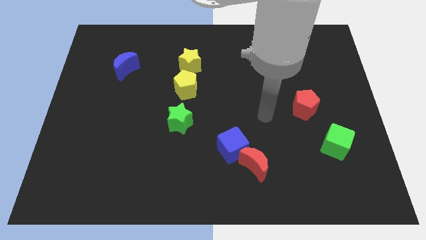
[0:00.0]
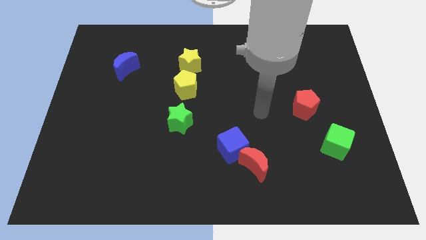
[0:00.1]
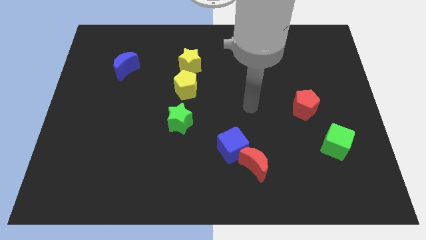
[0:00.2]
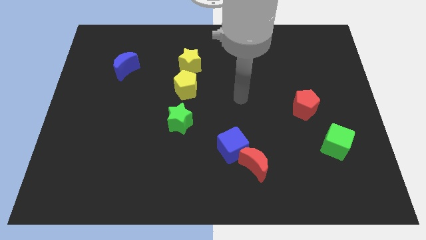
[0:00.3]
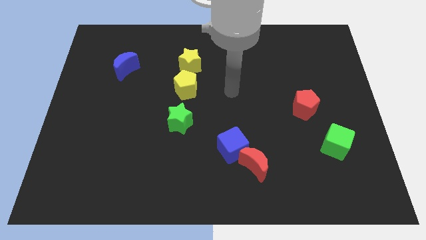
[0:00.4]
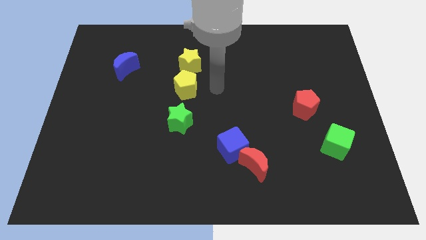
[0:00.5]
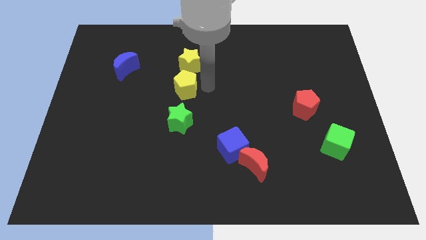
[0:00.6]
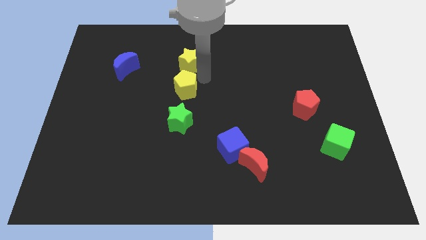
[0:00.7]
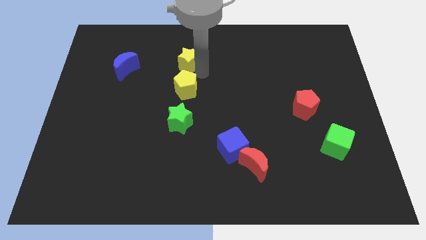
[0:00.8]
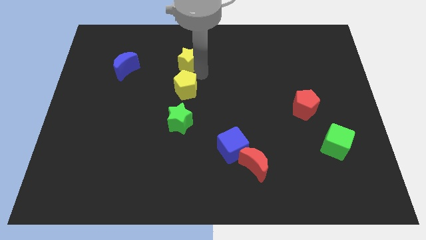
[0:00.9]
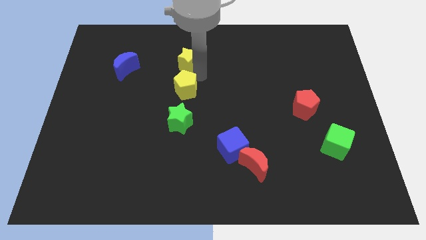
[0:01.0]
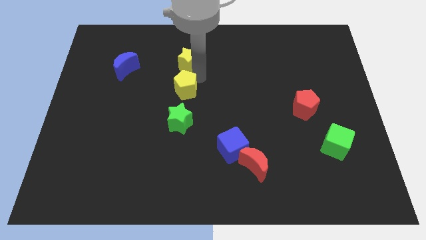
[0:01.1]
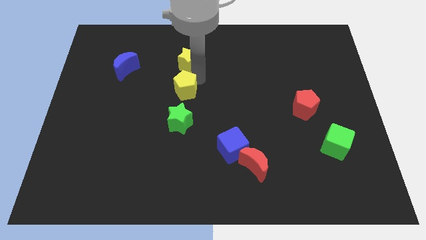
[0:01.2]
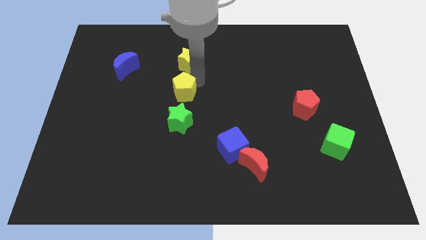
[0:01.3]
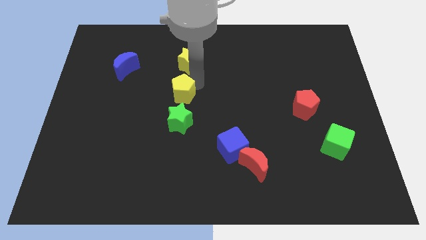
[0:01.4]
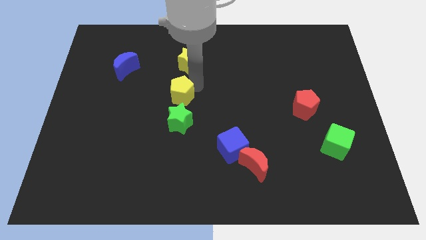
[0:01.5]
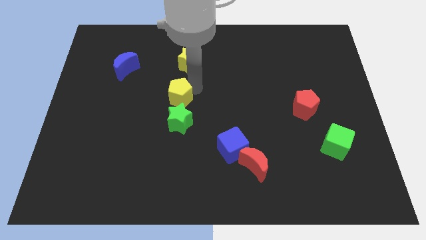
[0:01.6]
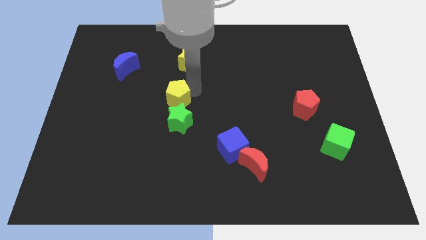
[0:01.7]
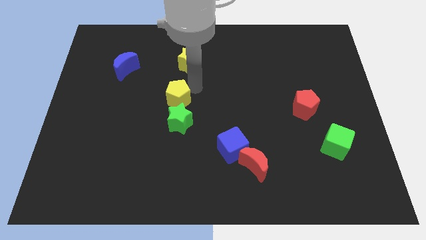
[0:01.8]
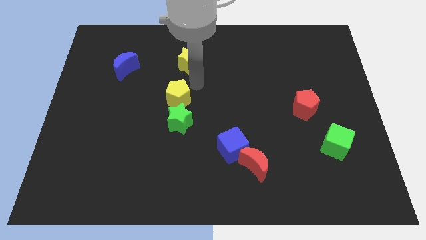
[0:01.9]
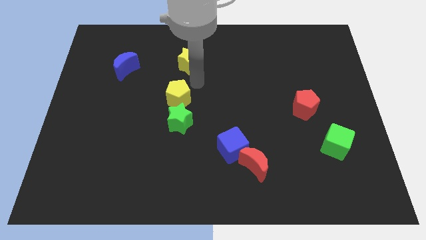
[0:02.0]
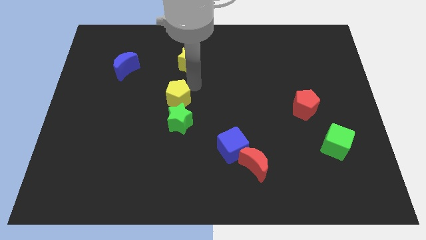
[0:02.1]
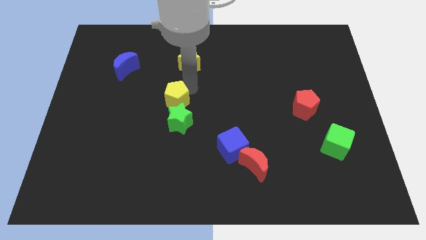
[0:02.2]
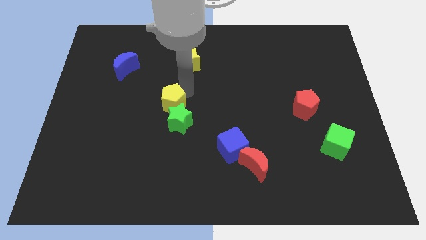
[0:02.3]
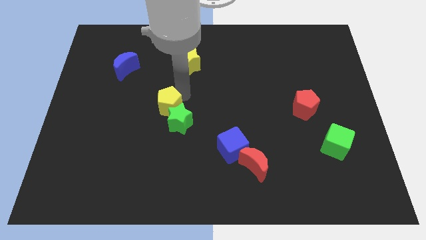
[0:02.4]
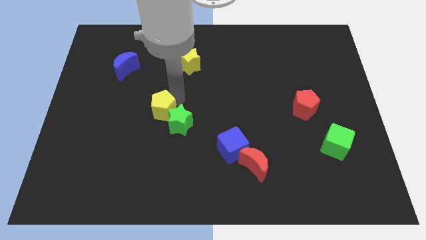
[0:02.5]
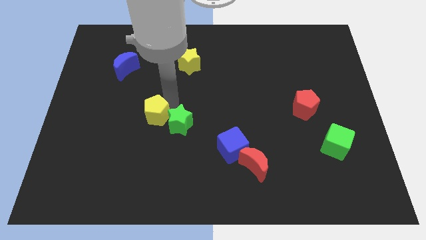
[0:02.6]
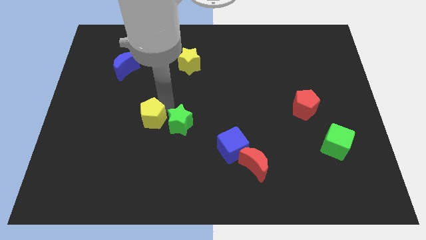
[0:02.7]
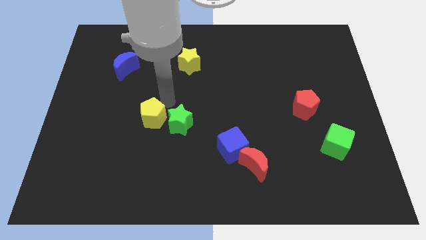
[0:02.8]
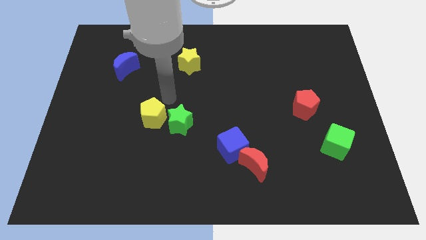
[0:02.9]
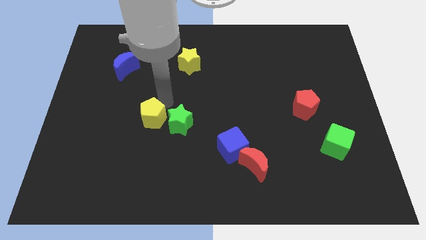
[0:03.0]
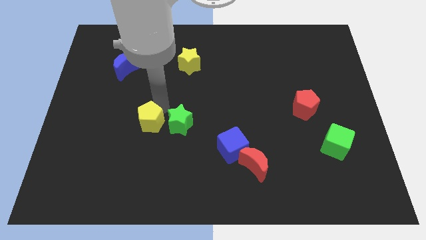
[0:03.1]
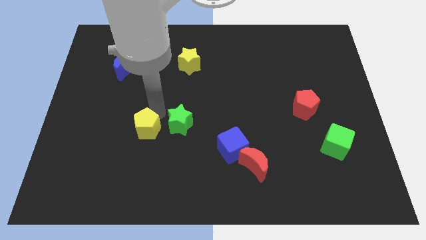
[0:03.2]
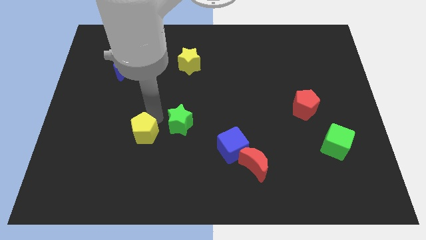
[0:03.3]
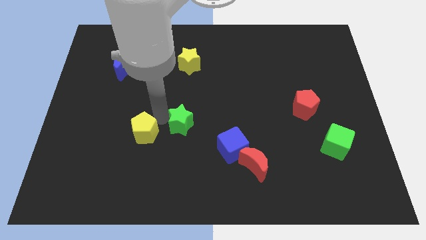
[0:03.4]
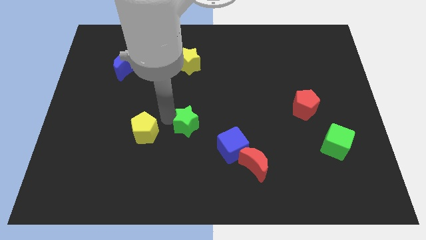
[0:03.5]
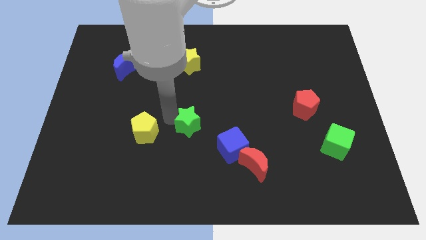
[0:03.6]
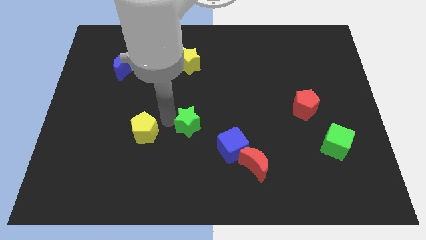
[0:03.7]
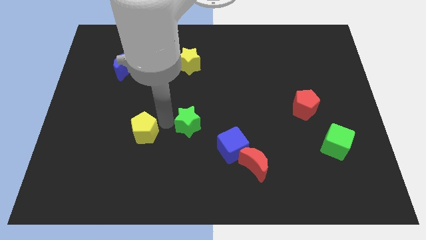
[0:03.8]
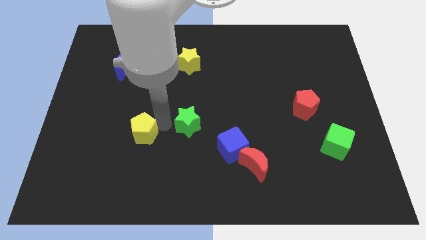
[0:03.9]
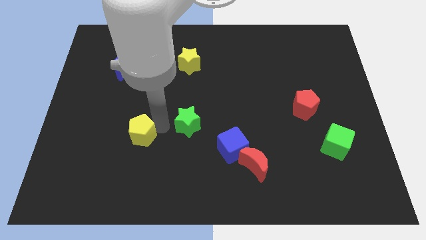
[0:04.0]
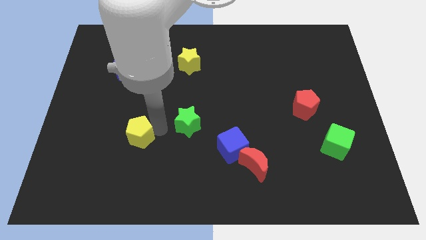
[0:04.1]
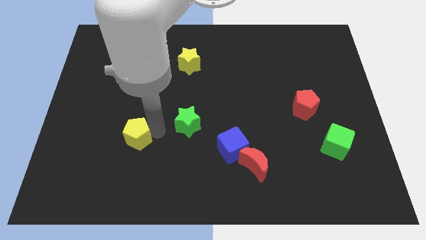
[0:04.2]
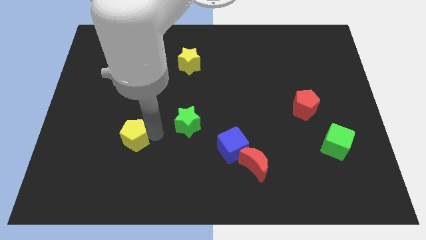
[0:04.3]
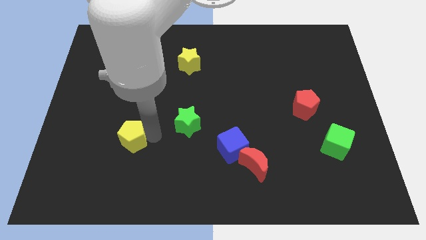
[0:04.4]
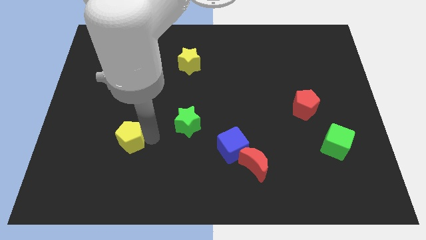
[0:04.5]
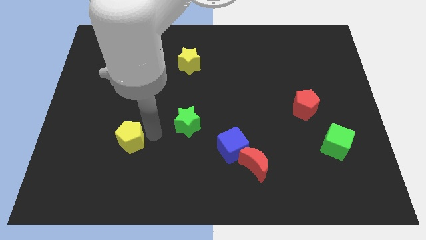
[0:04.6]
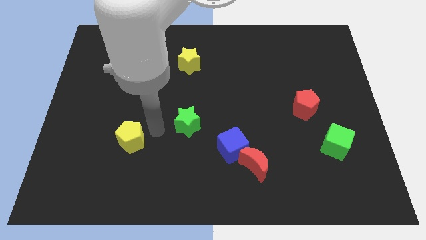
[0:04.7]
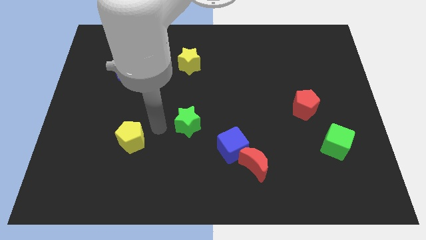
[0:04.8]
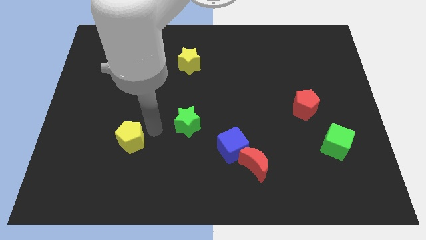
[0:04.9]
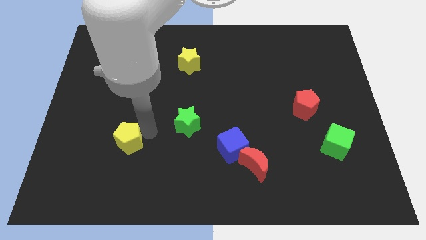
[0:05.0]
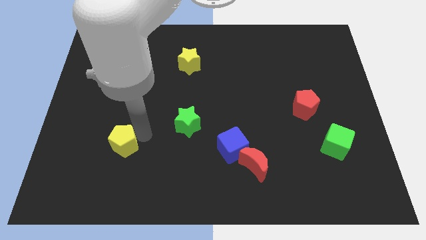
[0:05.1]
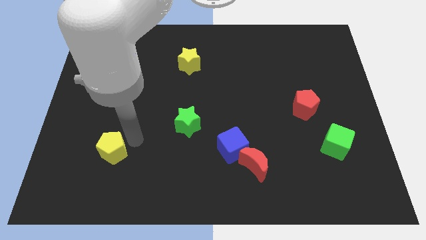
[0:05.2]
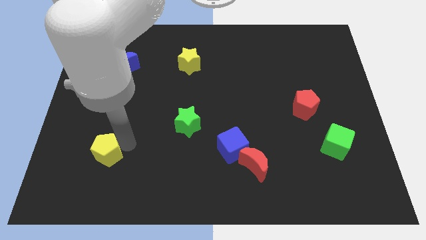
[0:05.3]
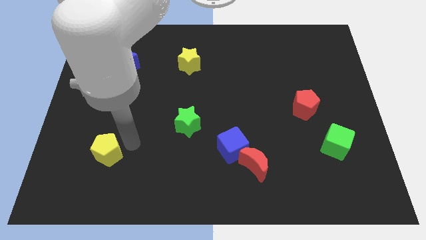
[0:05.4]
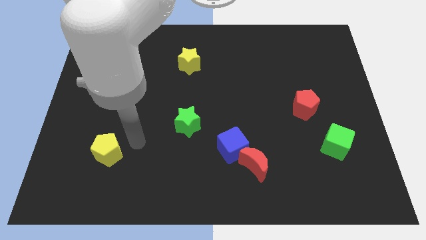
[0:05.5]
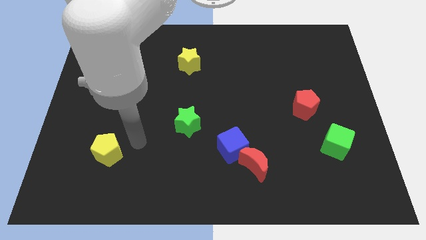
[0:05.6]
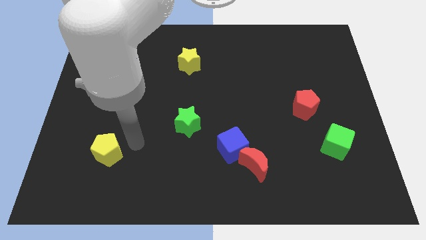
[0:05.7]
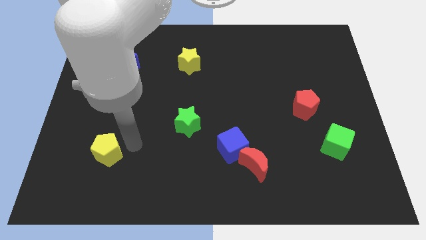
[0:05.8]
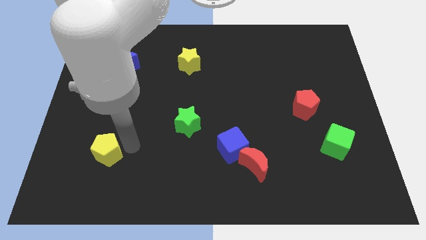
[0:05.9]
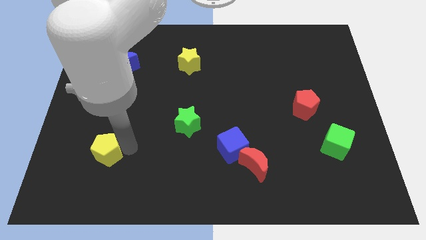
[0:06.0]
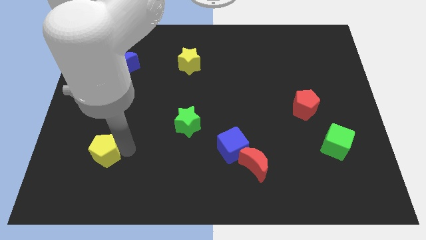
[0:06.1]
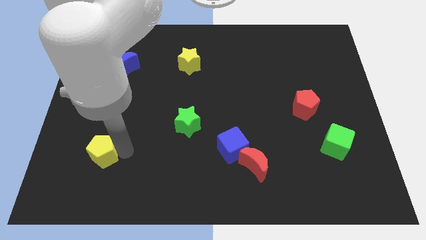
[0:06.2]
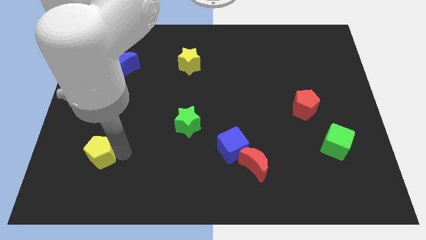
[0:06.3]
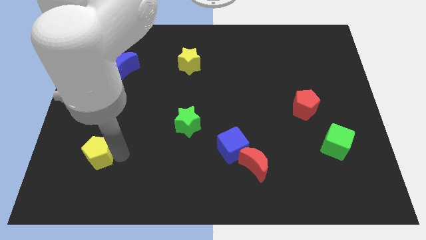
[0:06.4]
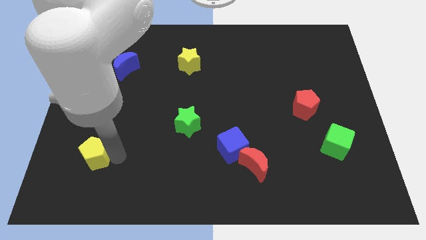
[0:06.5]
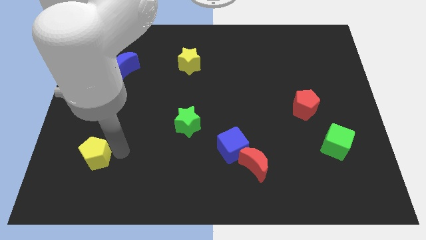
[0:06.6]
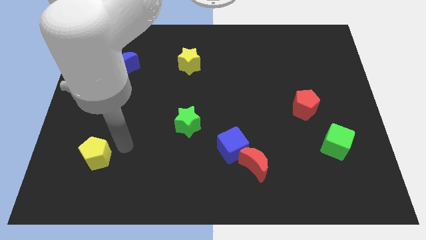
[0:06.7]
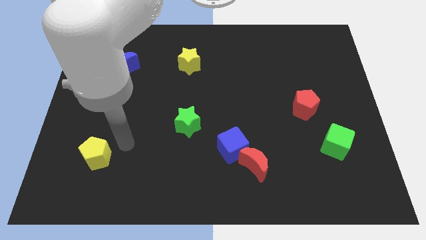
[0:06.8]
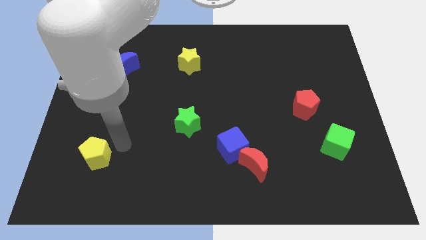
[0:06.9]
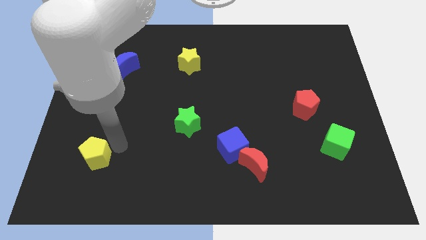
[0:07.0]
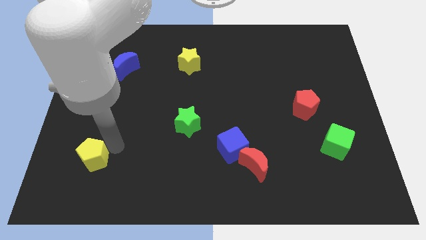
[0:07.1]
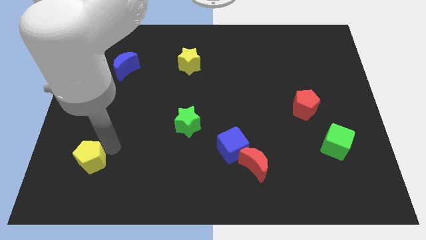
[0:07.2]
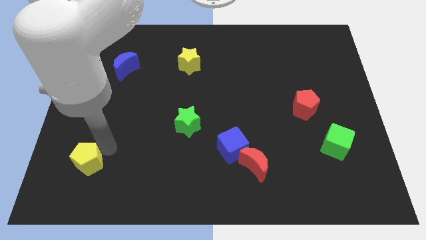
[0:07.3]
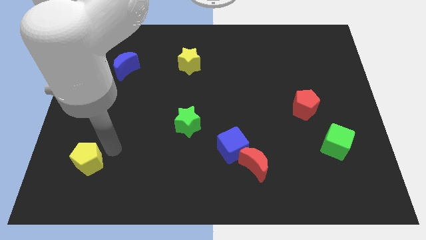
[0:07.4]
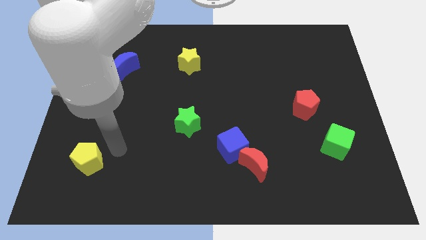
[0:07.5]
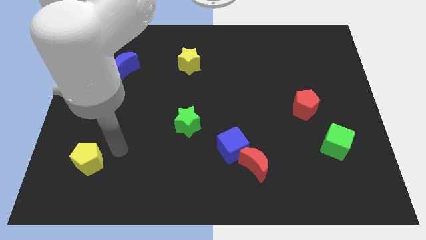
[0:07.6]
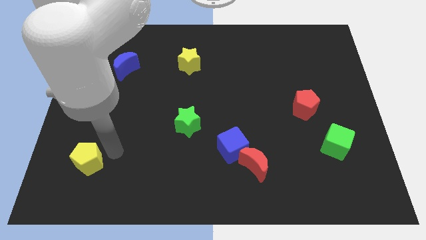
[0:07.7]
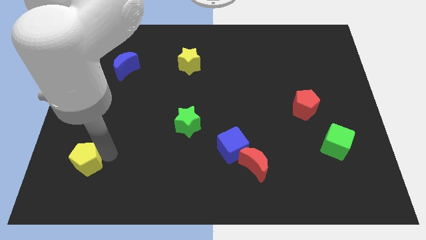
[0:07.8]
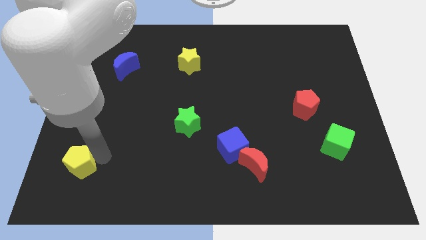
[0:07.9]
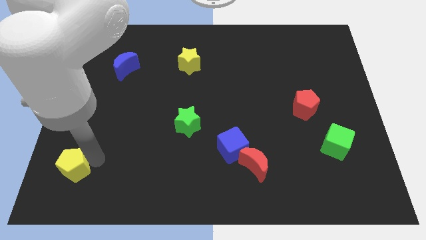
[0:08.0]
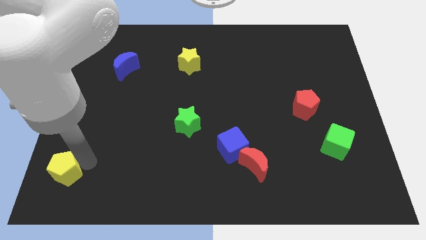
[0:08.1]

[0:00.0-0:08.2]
push the yellow pentagon to the bottom left of the board
